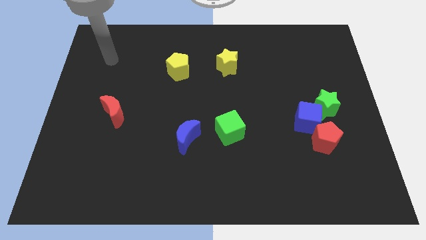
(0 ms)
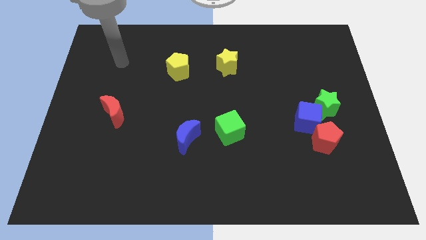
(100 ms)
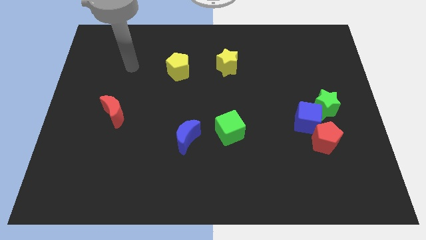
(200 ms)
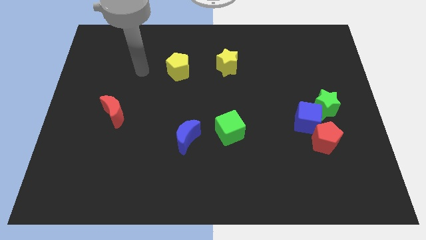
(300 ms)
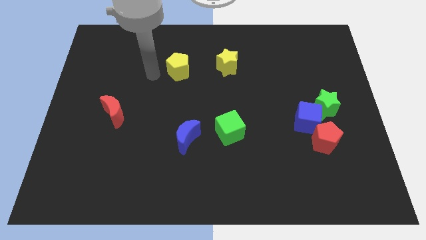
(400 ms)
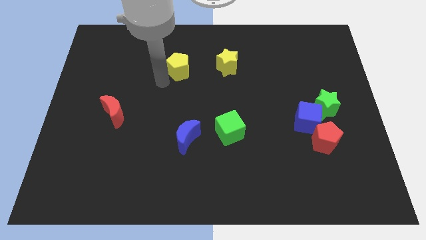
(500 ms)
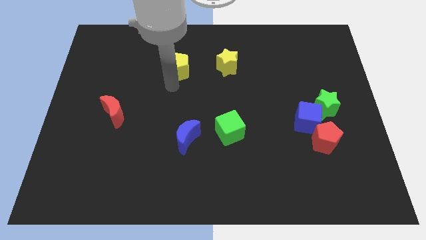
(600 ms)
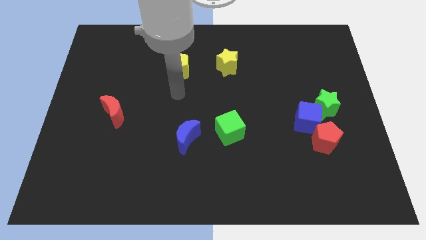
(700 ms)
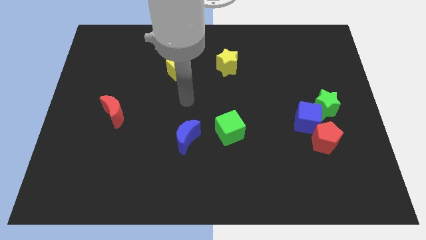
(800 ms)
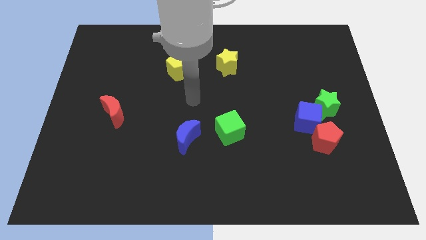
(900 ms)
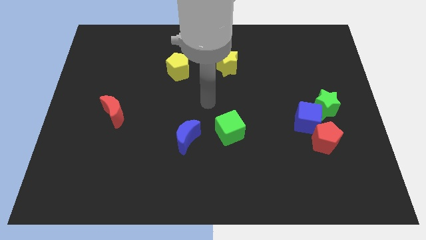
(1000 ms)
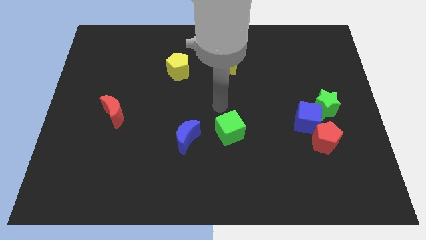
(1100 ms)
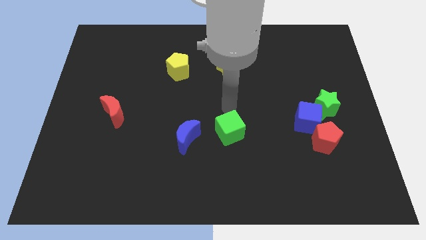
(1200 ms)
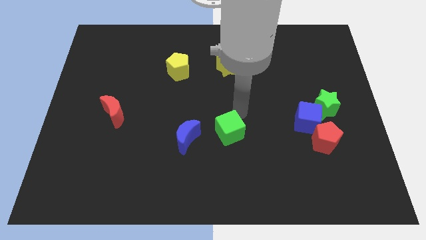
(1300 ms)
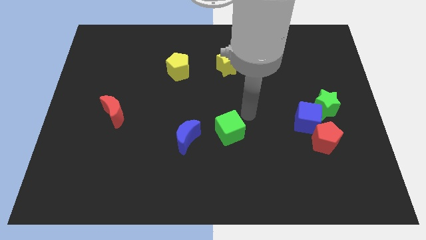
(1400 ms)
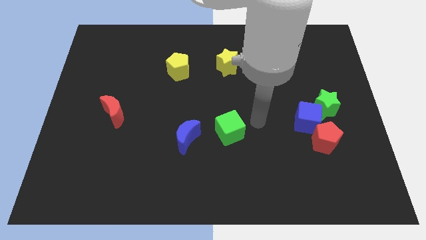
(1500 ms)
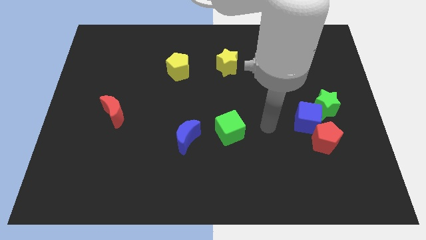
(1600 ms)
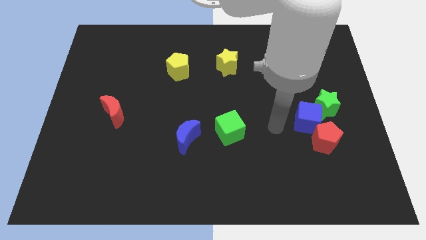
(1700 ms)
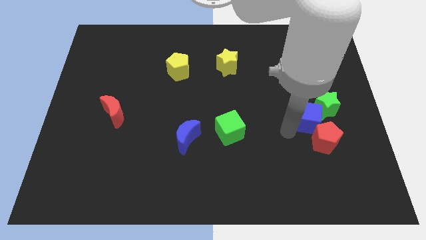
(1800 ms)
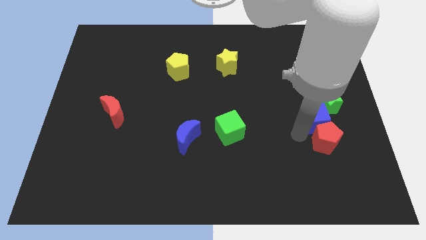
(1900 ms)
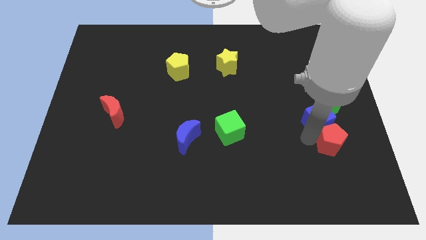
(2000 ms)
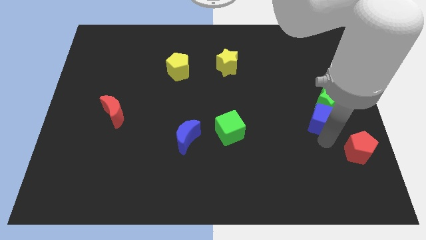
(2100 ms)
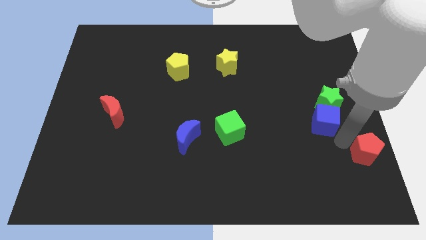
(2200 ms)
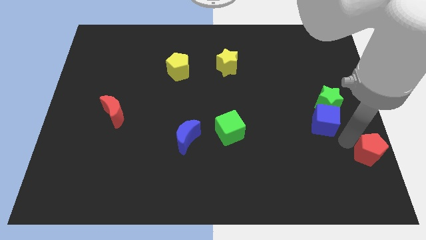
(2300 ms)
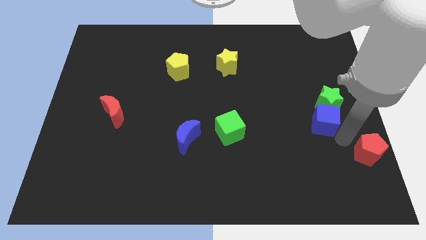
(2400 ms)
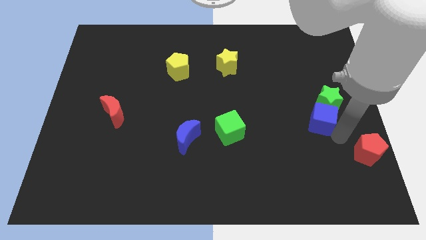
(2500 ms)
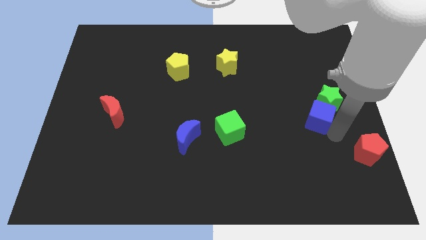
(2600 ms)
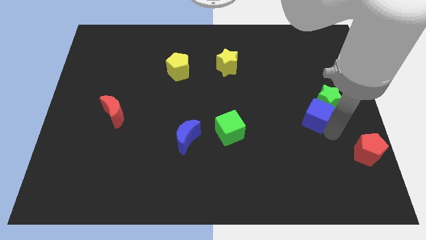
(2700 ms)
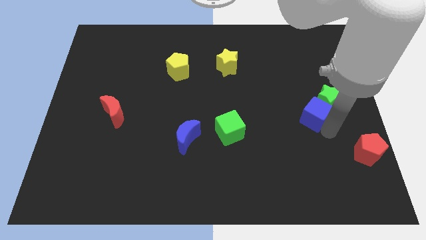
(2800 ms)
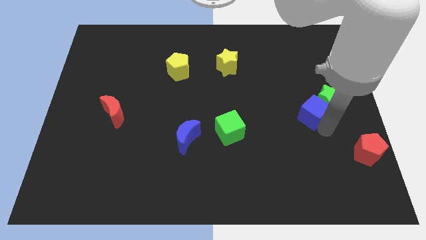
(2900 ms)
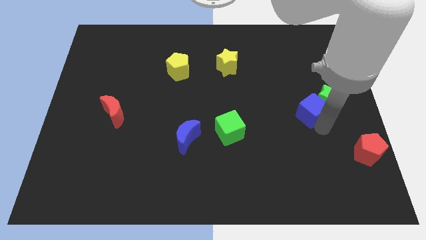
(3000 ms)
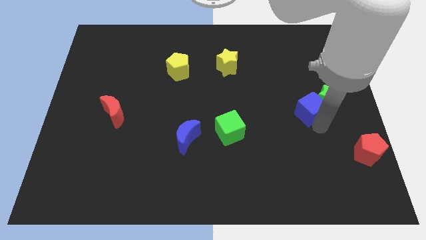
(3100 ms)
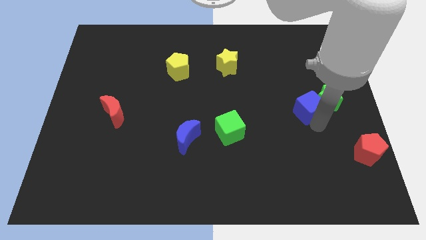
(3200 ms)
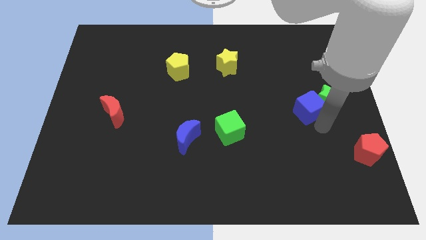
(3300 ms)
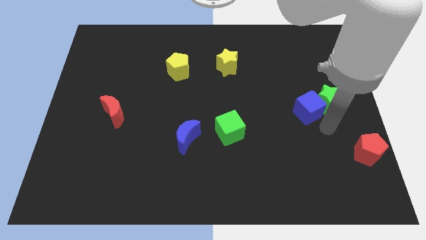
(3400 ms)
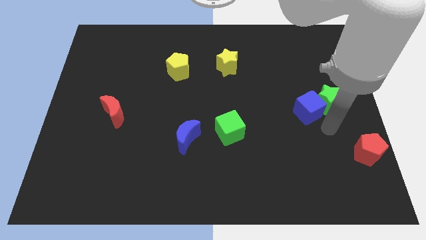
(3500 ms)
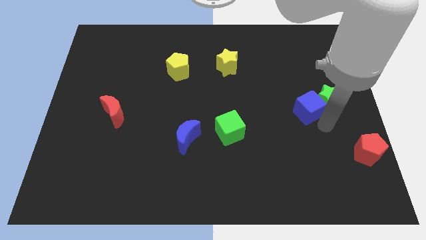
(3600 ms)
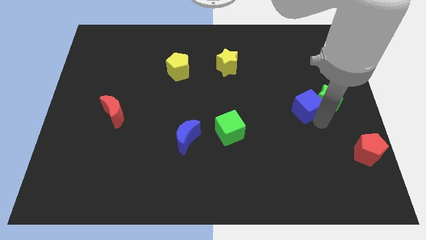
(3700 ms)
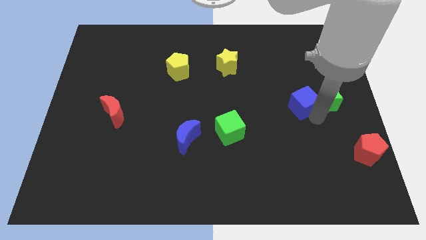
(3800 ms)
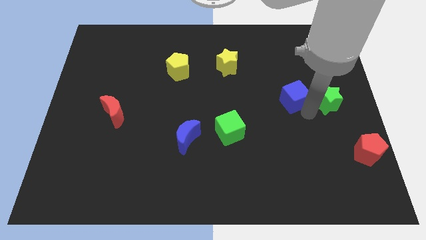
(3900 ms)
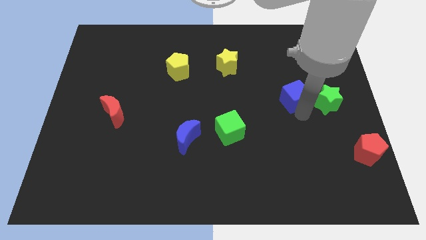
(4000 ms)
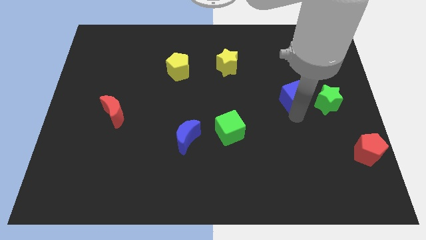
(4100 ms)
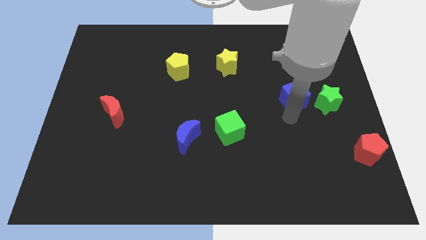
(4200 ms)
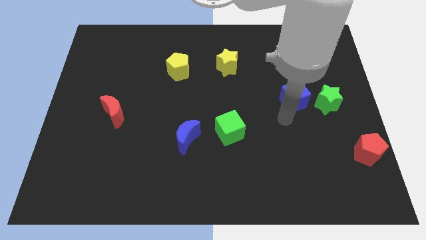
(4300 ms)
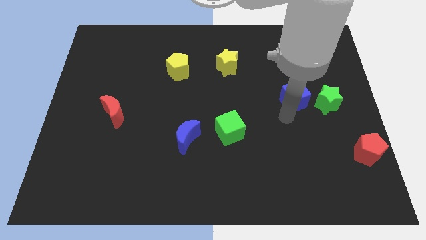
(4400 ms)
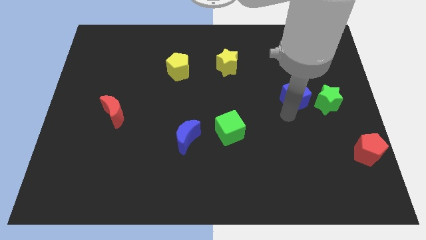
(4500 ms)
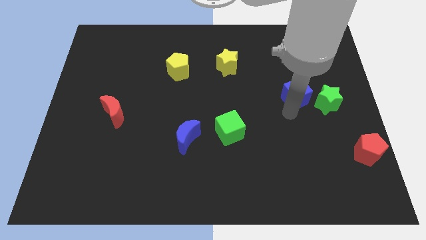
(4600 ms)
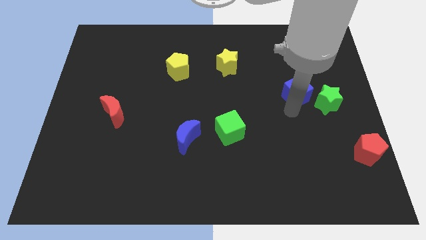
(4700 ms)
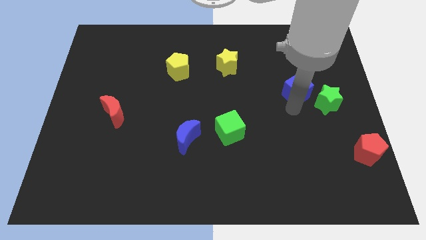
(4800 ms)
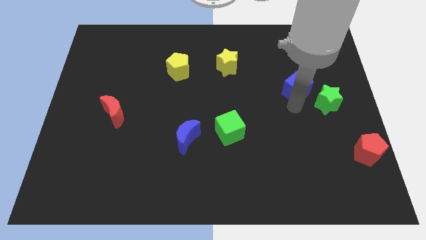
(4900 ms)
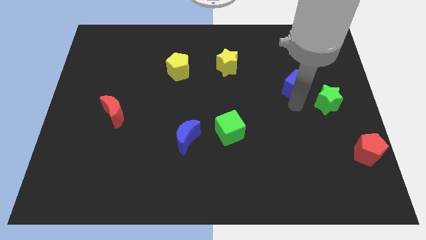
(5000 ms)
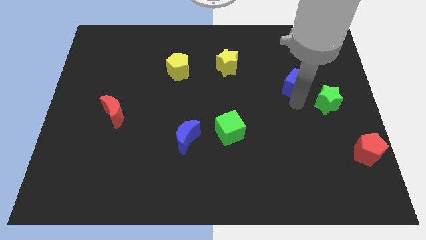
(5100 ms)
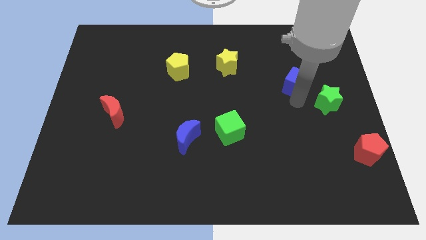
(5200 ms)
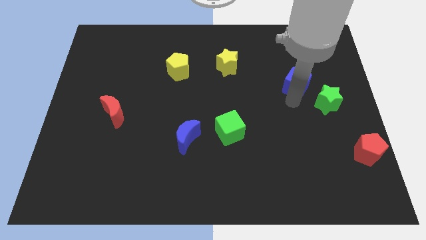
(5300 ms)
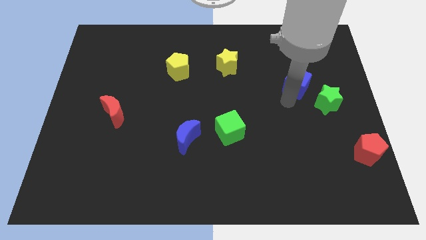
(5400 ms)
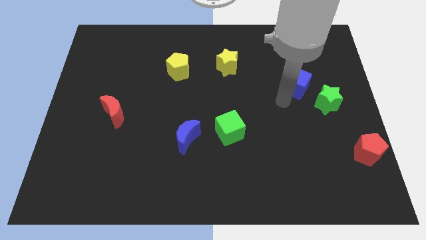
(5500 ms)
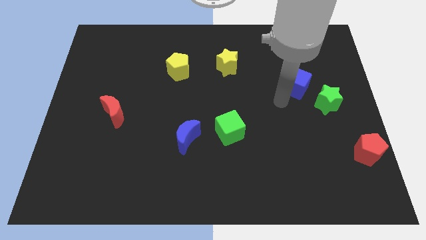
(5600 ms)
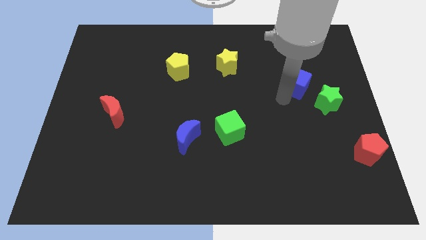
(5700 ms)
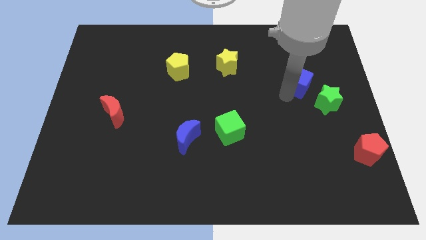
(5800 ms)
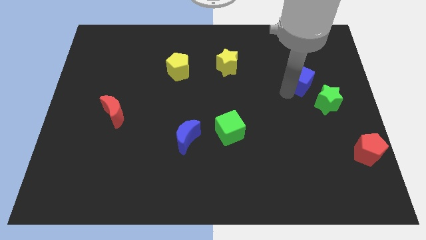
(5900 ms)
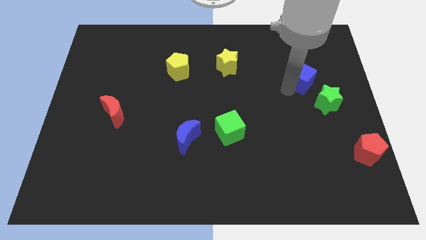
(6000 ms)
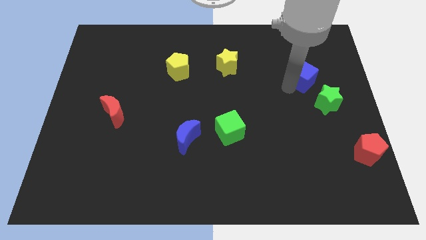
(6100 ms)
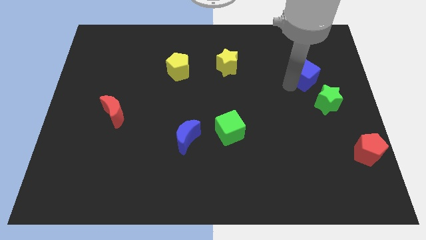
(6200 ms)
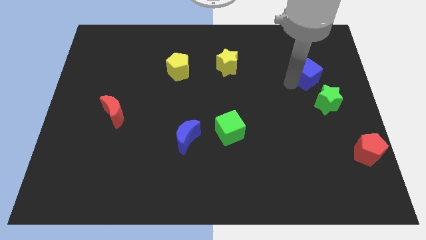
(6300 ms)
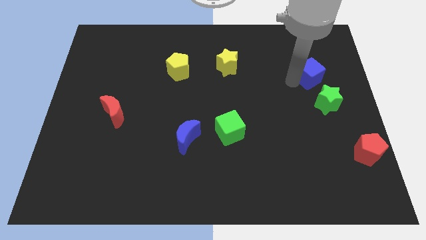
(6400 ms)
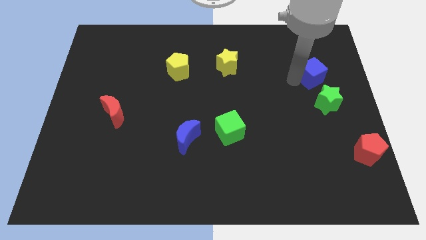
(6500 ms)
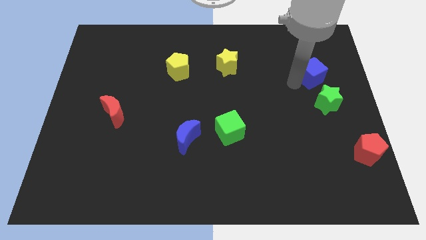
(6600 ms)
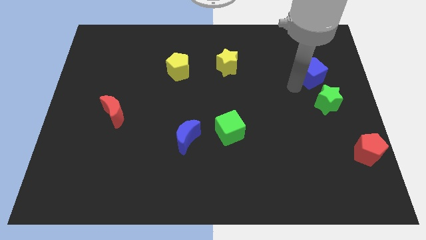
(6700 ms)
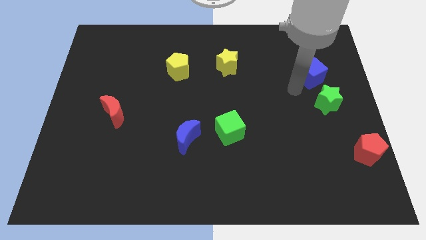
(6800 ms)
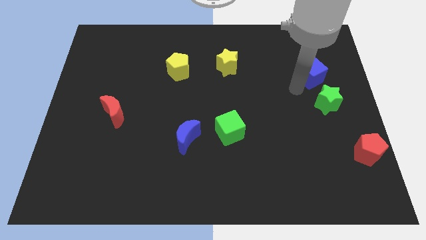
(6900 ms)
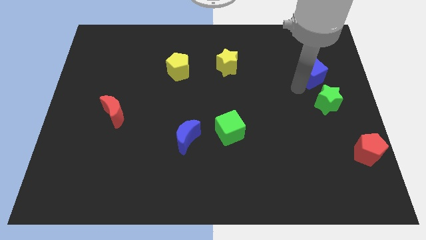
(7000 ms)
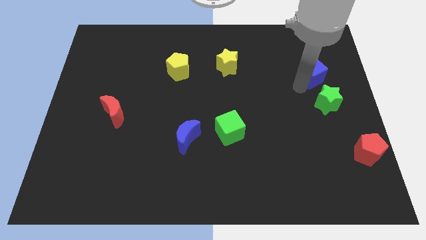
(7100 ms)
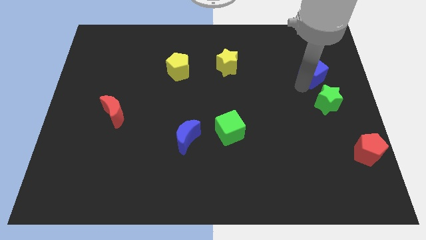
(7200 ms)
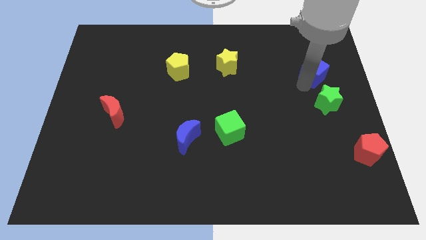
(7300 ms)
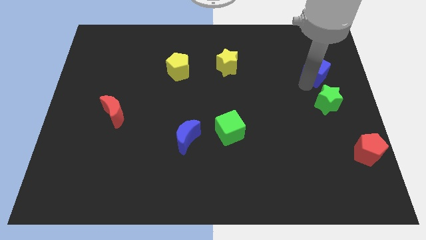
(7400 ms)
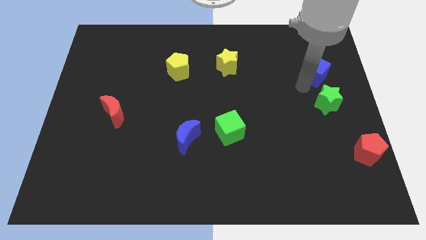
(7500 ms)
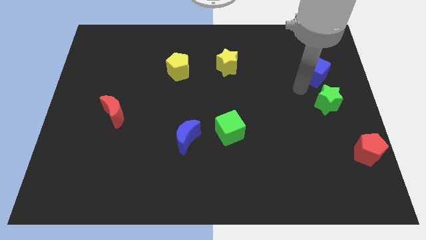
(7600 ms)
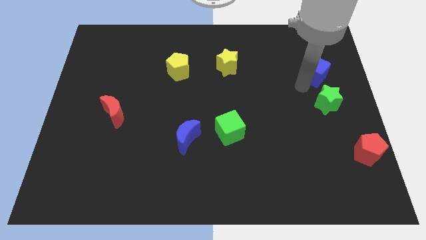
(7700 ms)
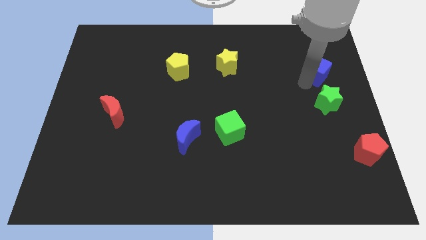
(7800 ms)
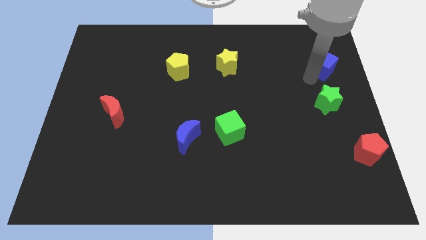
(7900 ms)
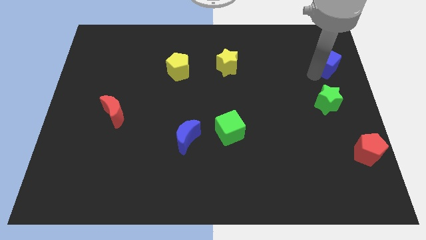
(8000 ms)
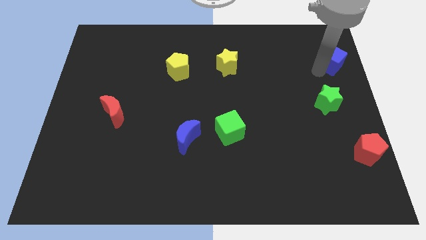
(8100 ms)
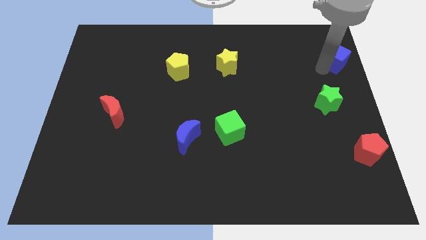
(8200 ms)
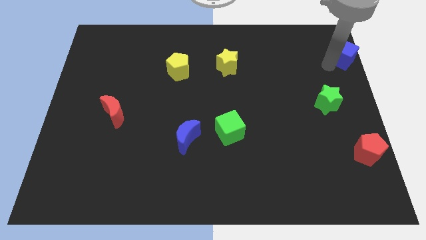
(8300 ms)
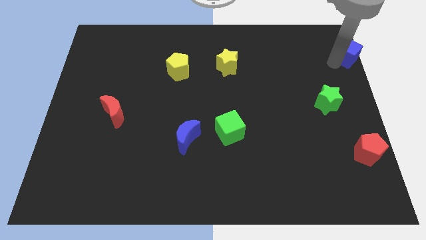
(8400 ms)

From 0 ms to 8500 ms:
slide the blue cube to the top right
